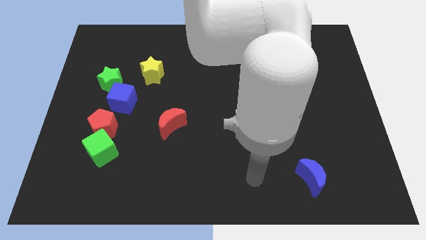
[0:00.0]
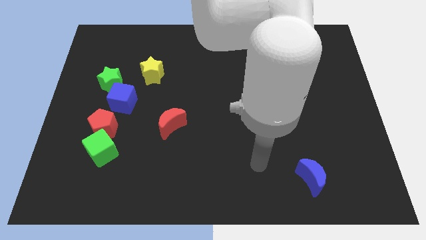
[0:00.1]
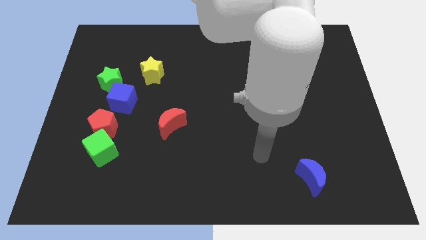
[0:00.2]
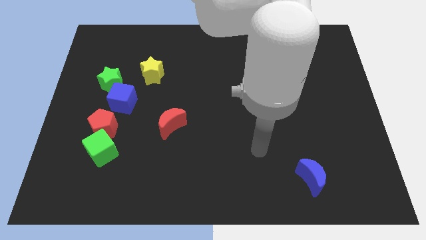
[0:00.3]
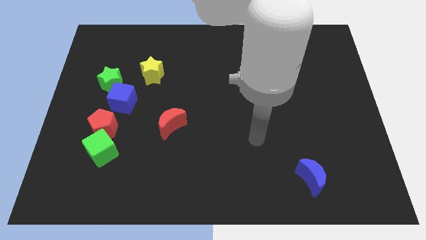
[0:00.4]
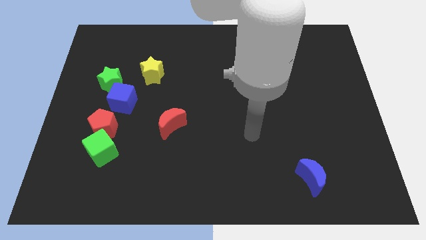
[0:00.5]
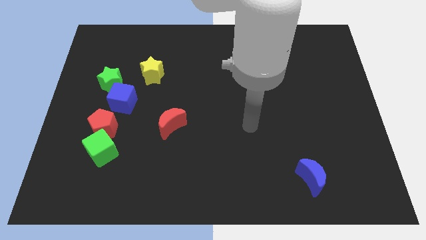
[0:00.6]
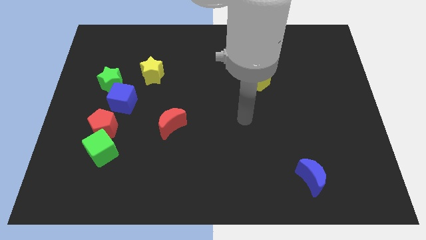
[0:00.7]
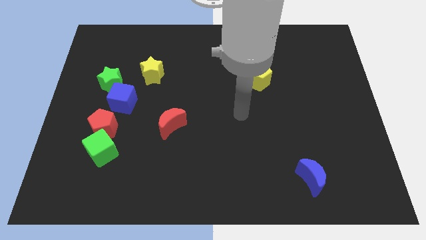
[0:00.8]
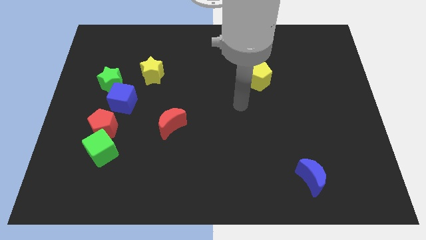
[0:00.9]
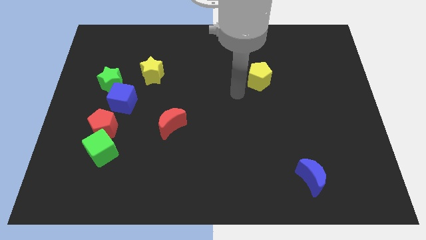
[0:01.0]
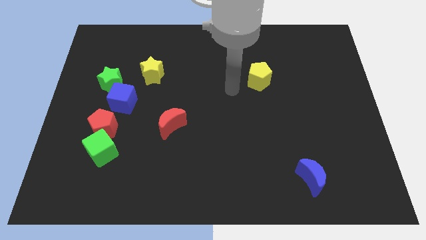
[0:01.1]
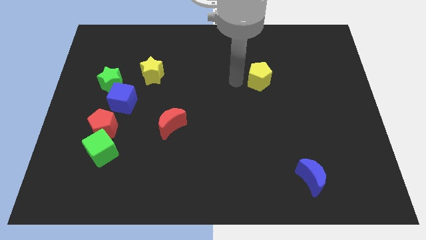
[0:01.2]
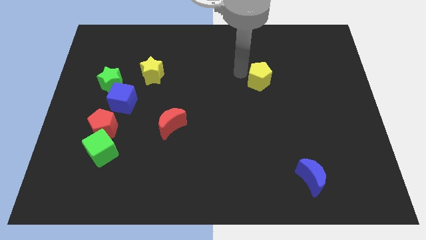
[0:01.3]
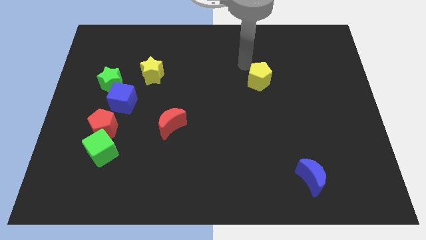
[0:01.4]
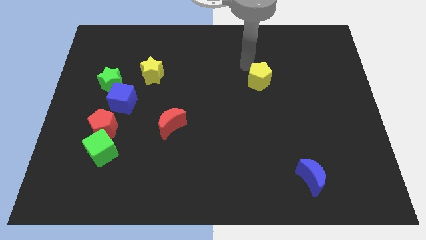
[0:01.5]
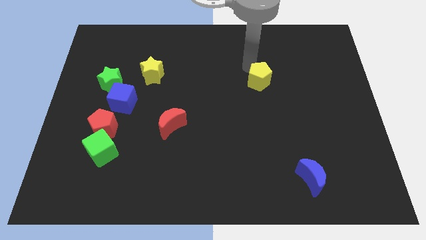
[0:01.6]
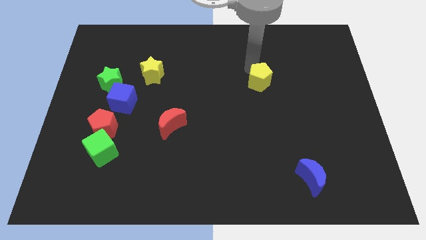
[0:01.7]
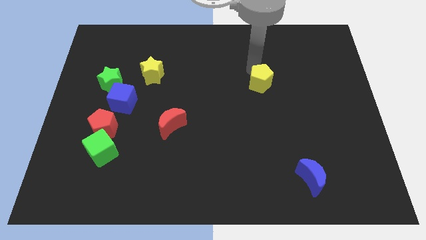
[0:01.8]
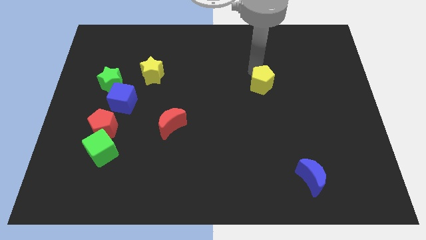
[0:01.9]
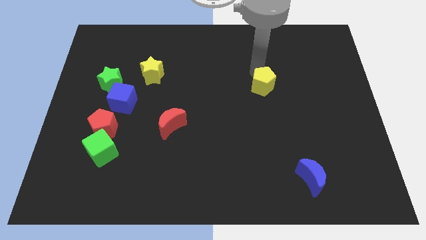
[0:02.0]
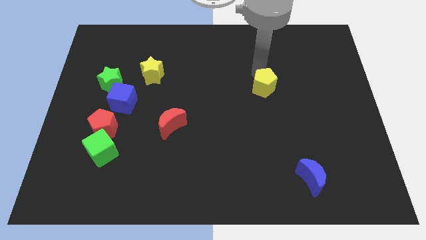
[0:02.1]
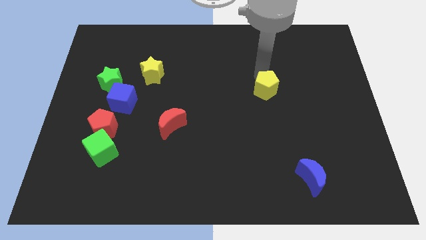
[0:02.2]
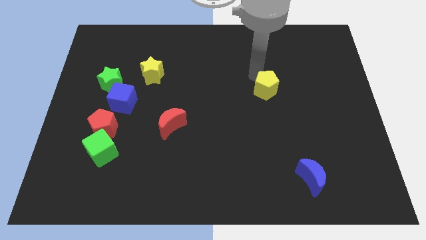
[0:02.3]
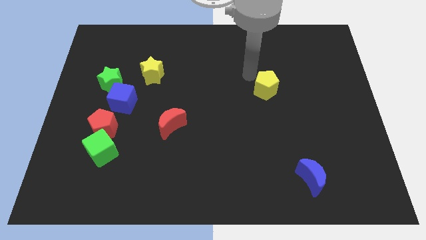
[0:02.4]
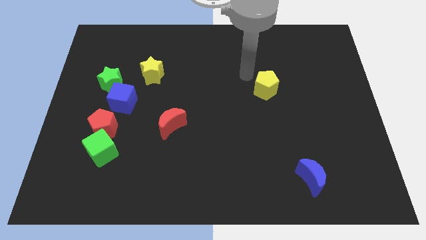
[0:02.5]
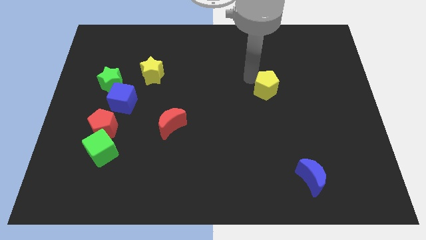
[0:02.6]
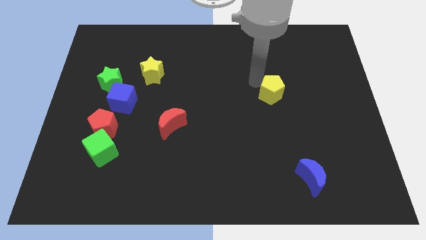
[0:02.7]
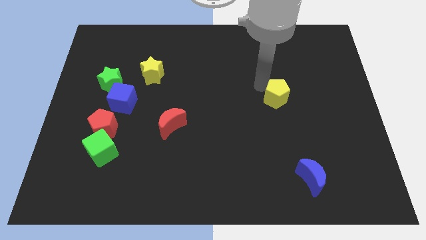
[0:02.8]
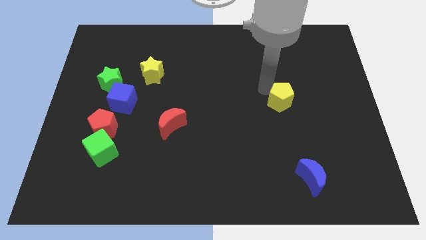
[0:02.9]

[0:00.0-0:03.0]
slightly push the yellow pentagon diagonally downwards and right

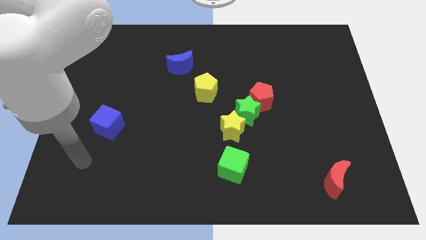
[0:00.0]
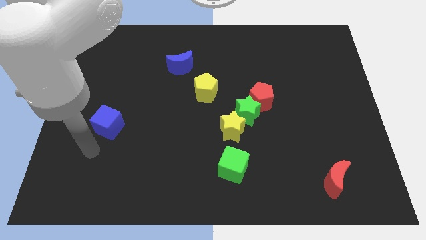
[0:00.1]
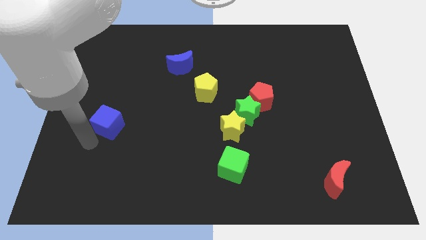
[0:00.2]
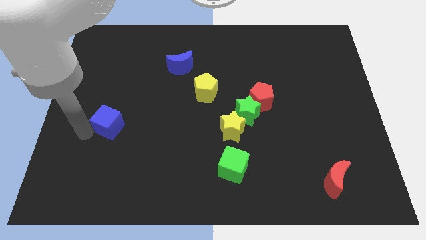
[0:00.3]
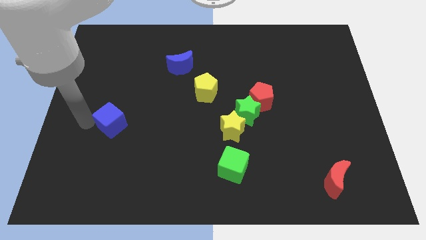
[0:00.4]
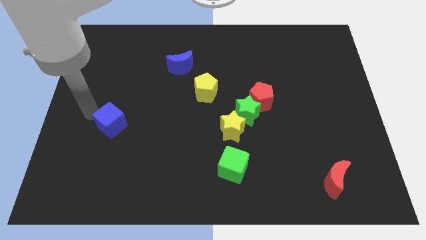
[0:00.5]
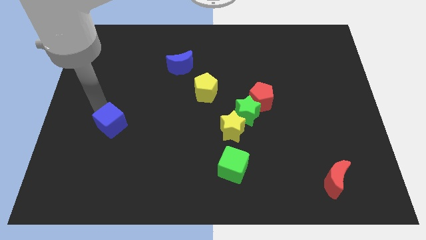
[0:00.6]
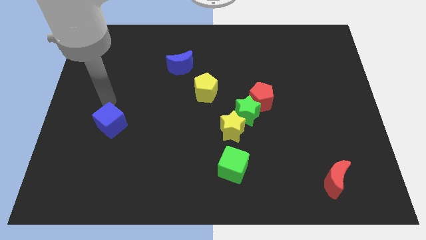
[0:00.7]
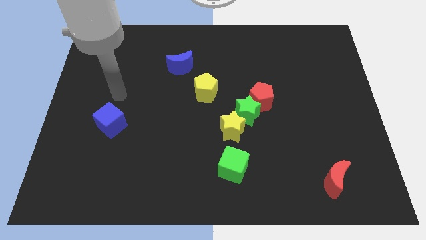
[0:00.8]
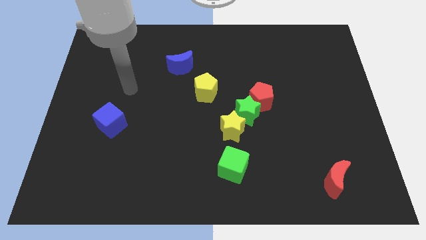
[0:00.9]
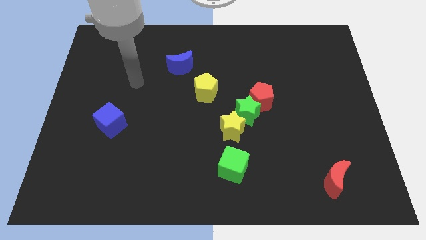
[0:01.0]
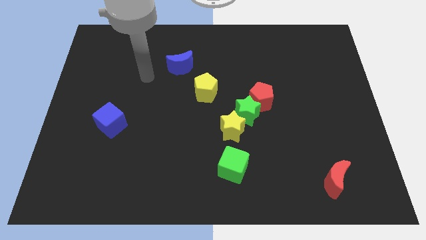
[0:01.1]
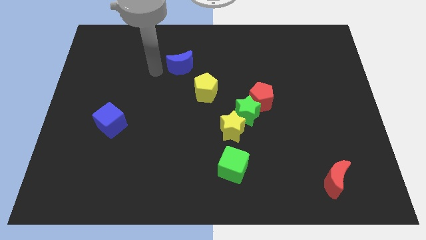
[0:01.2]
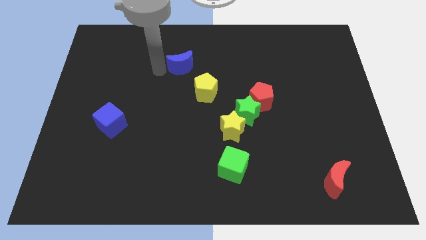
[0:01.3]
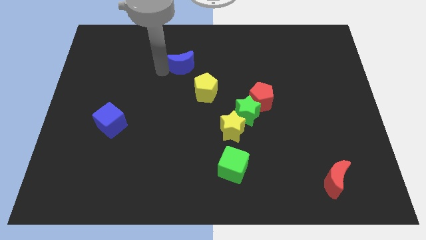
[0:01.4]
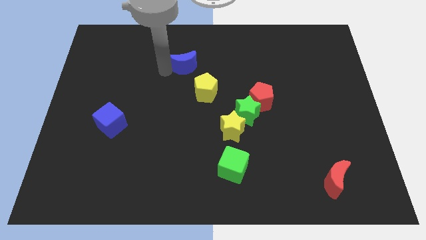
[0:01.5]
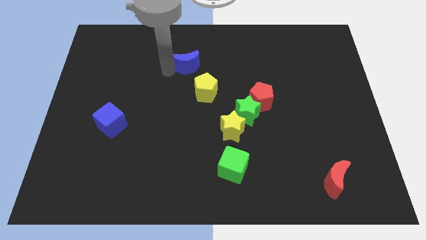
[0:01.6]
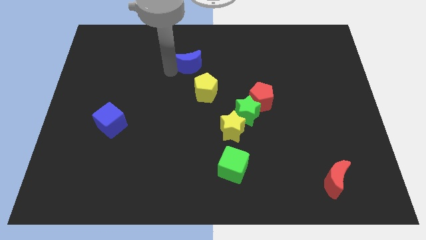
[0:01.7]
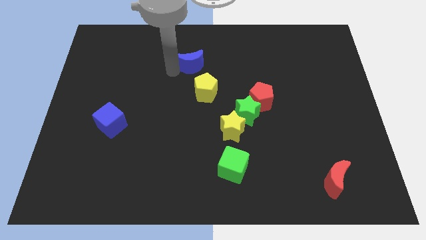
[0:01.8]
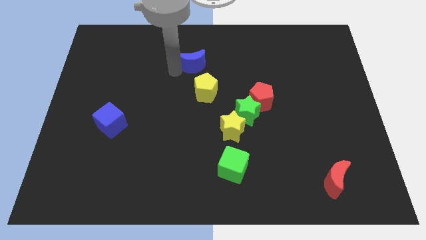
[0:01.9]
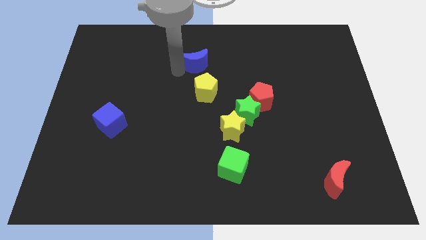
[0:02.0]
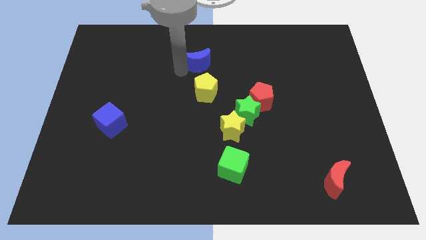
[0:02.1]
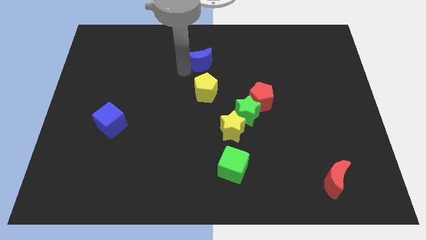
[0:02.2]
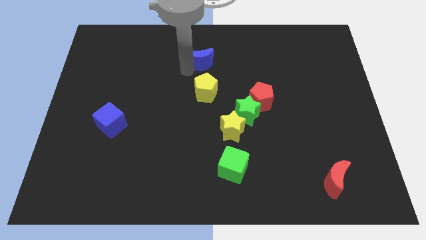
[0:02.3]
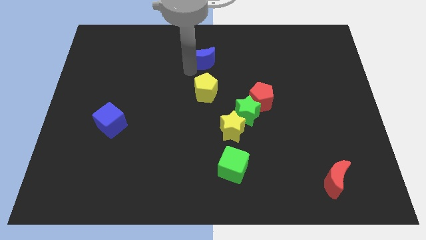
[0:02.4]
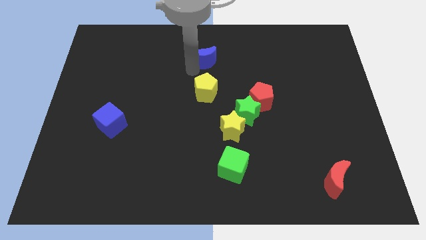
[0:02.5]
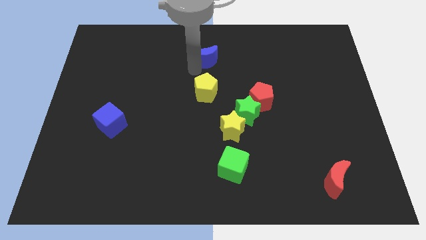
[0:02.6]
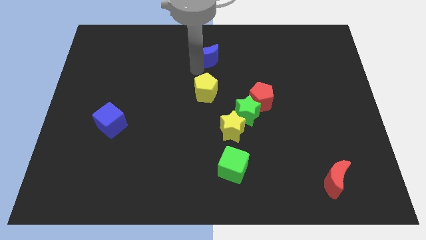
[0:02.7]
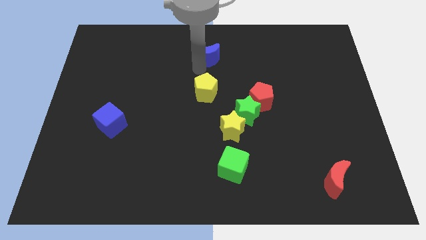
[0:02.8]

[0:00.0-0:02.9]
slide the blue moon somewhat right

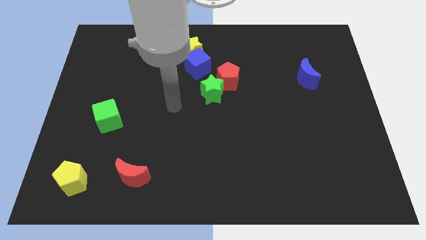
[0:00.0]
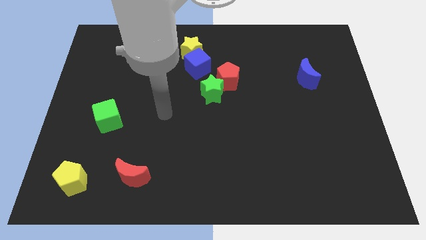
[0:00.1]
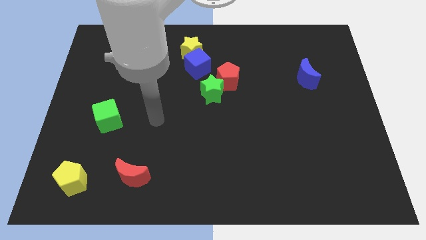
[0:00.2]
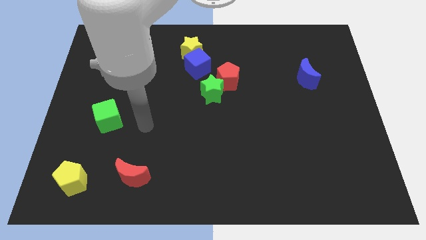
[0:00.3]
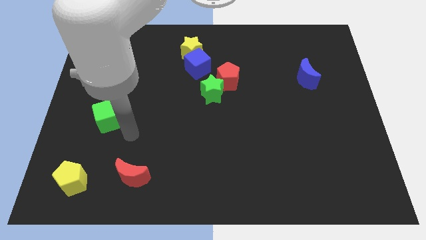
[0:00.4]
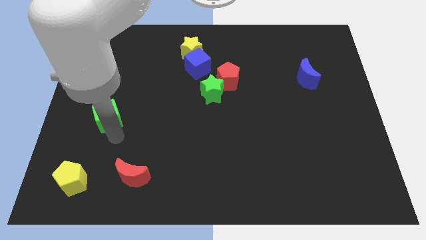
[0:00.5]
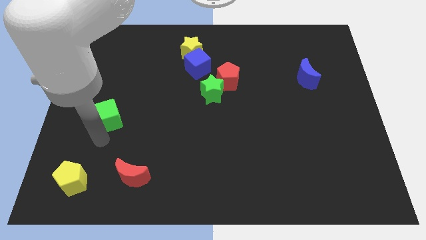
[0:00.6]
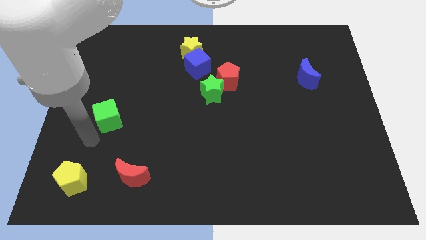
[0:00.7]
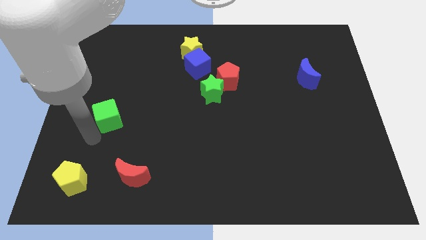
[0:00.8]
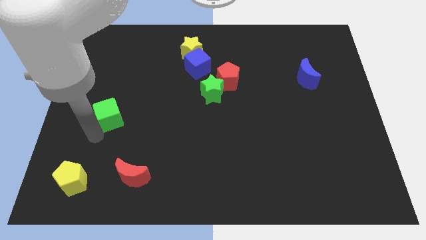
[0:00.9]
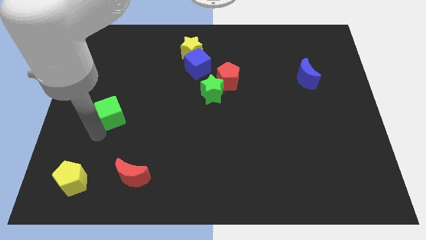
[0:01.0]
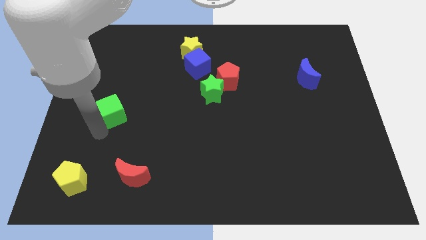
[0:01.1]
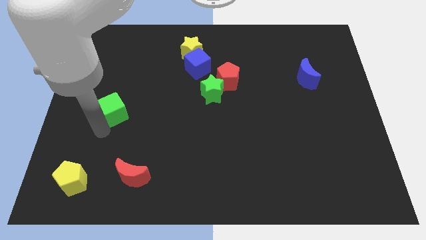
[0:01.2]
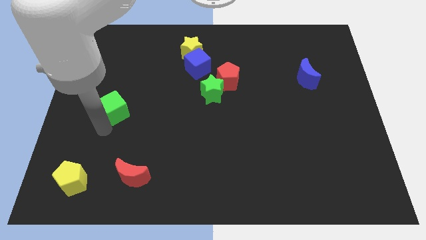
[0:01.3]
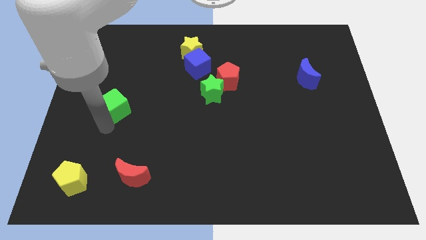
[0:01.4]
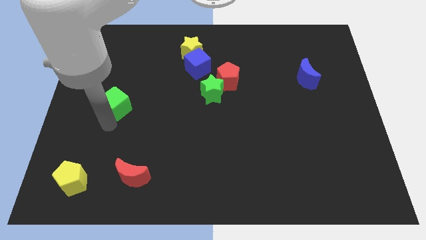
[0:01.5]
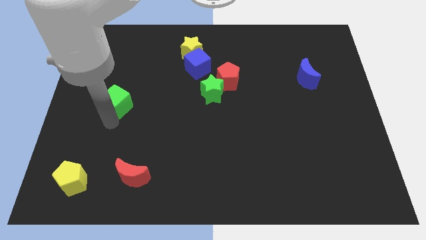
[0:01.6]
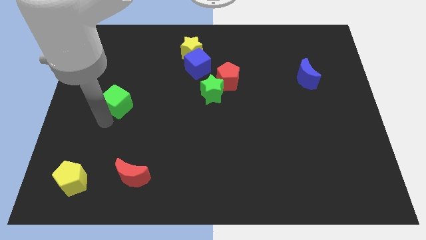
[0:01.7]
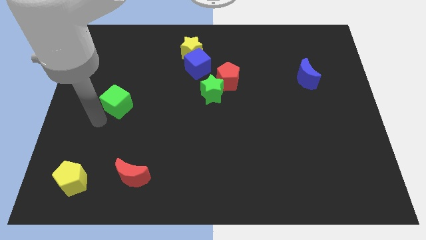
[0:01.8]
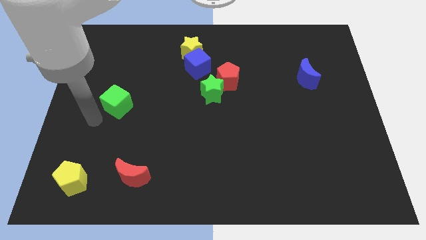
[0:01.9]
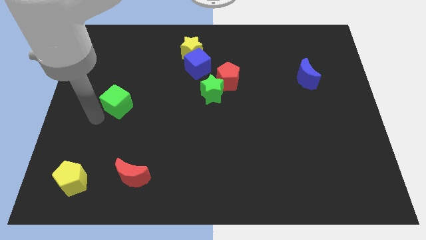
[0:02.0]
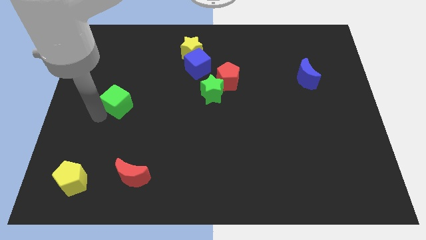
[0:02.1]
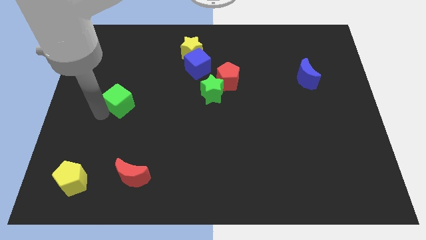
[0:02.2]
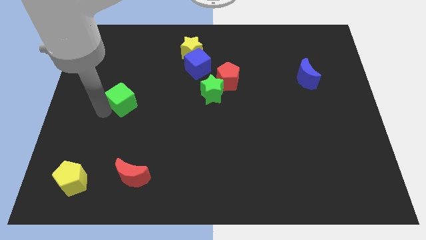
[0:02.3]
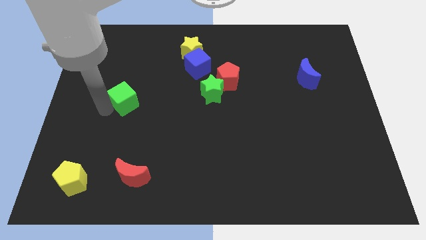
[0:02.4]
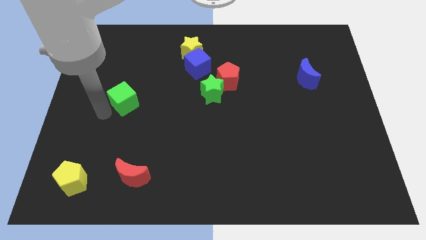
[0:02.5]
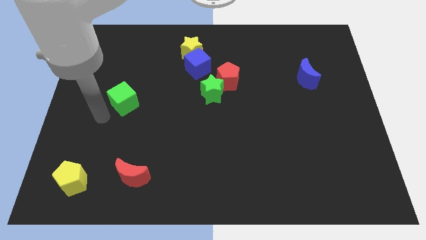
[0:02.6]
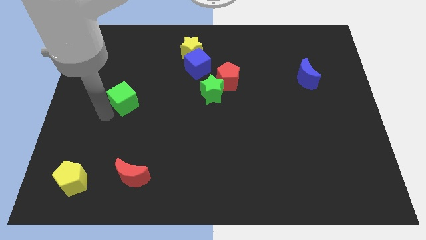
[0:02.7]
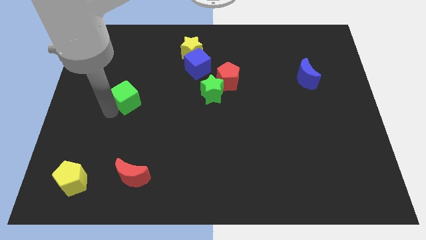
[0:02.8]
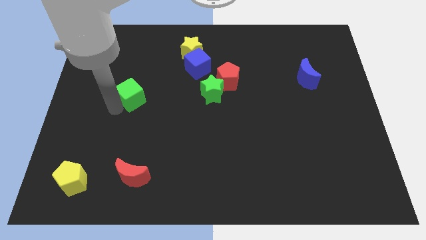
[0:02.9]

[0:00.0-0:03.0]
push the green cube somewhat up and to the right diagonally
